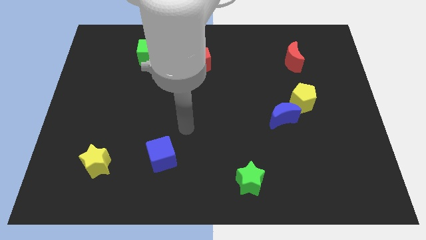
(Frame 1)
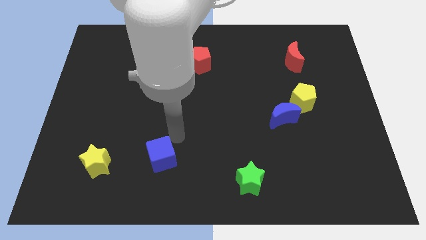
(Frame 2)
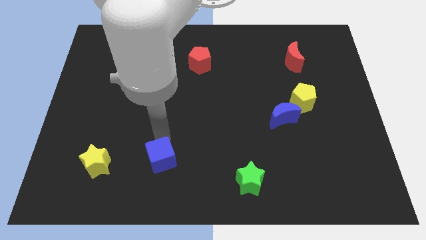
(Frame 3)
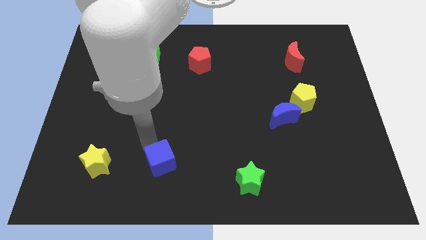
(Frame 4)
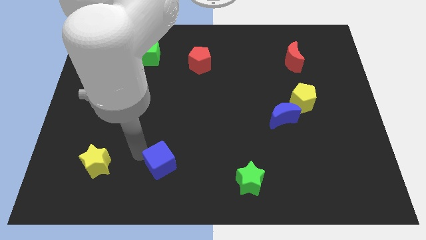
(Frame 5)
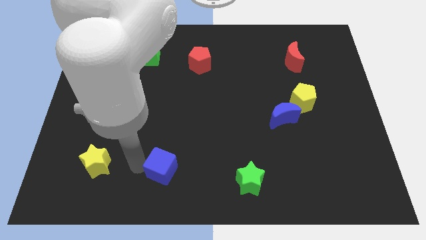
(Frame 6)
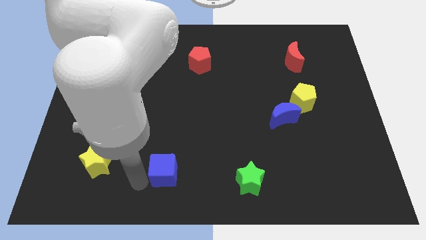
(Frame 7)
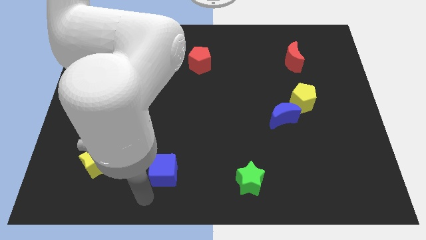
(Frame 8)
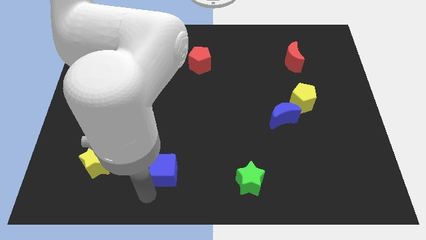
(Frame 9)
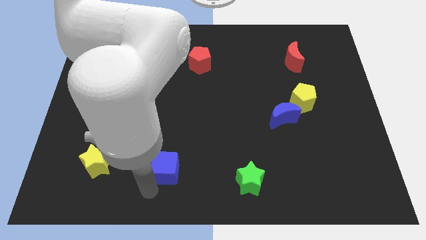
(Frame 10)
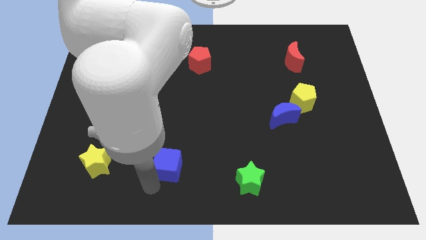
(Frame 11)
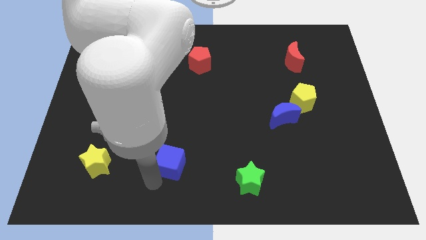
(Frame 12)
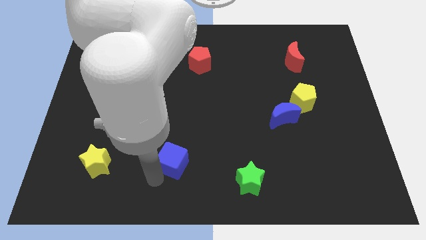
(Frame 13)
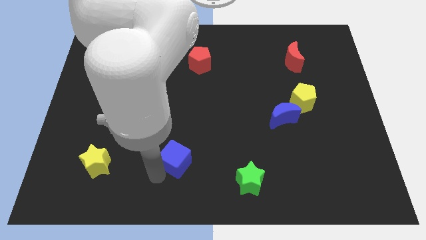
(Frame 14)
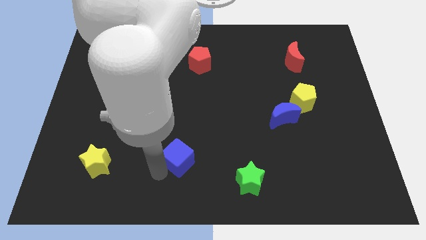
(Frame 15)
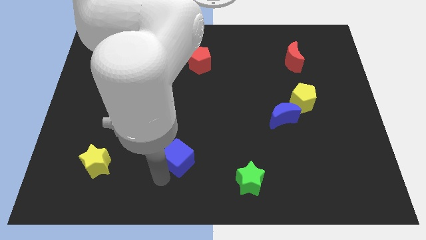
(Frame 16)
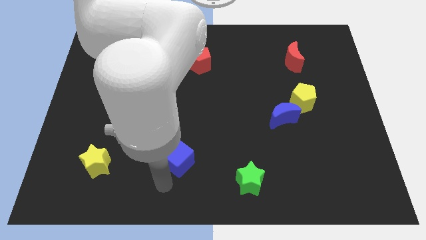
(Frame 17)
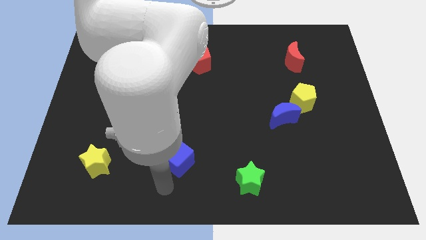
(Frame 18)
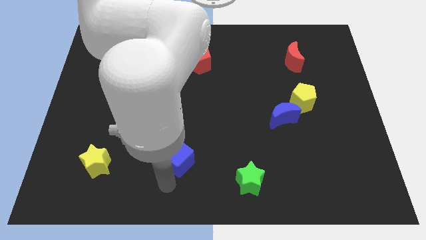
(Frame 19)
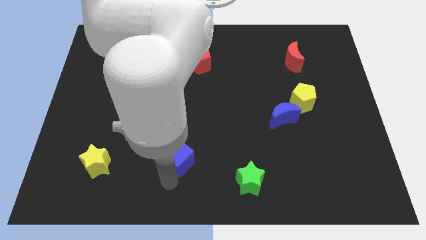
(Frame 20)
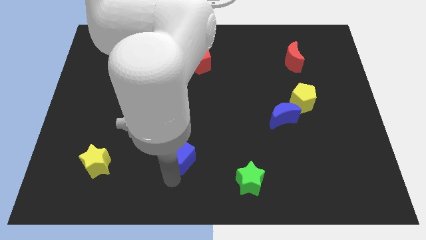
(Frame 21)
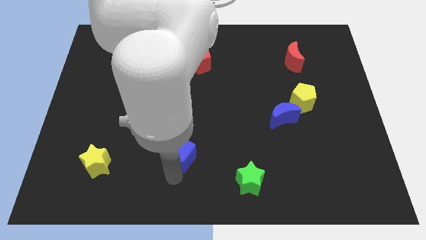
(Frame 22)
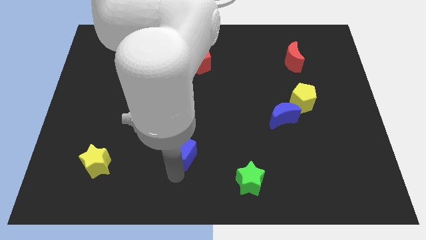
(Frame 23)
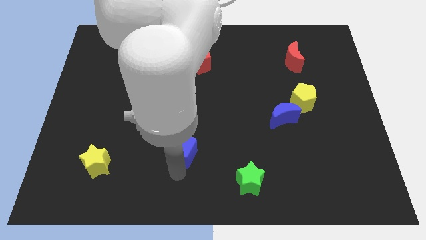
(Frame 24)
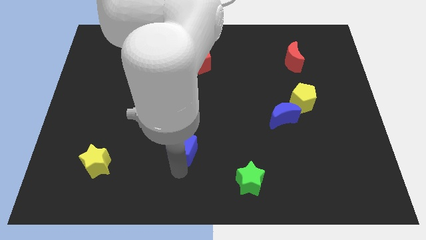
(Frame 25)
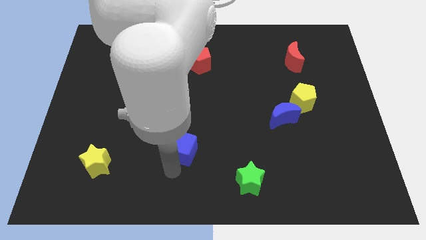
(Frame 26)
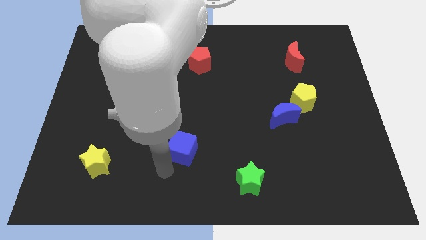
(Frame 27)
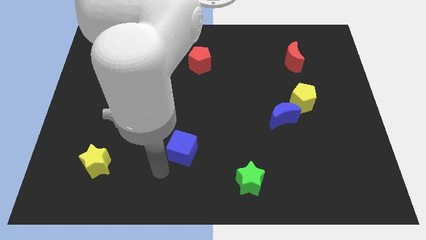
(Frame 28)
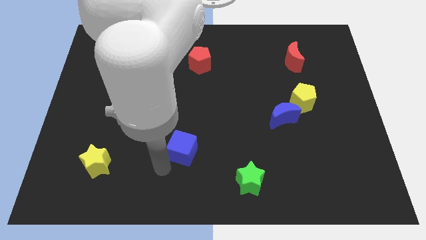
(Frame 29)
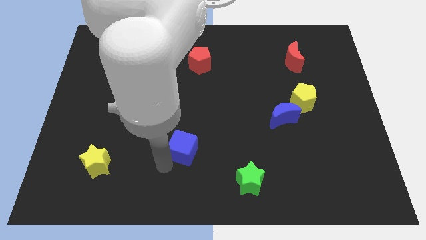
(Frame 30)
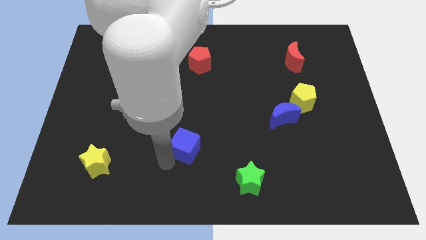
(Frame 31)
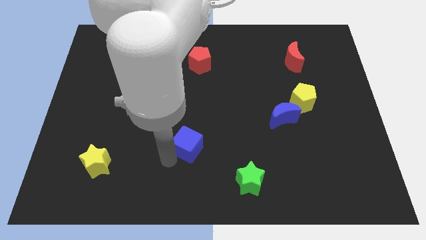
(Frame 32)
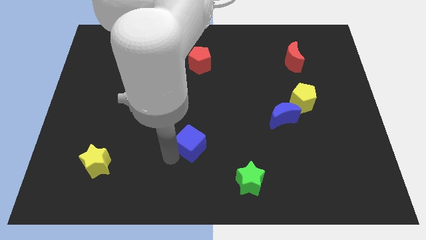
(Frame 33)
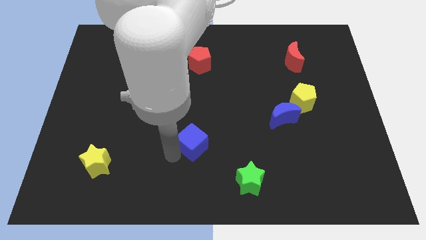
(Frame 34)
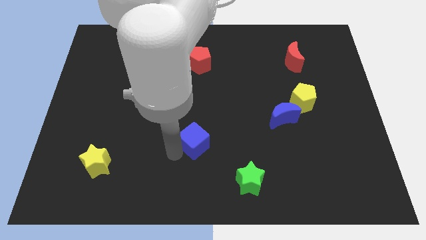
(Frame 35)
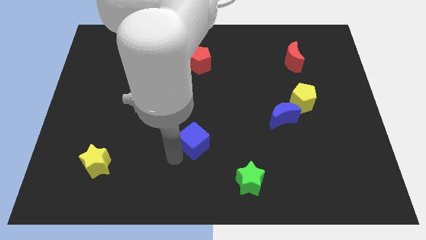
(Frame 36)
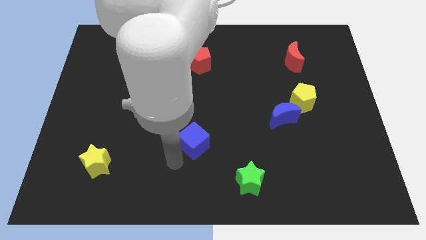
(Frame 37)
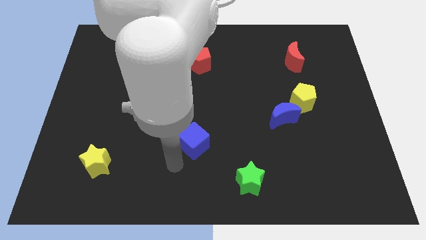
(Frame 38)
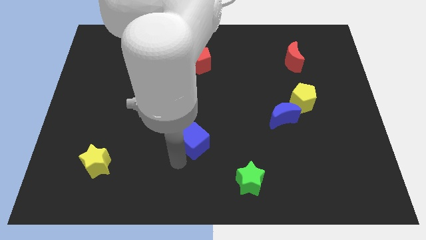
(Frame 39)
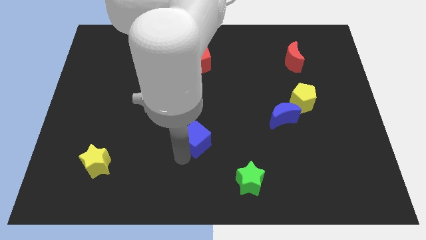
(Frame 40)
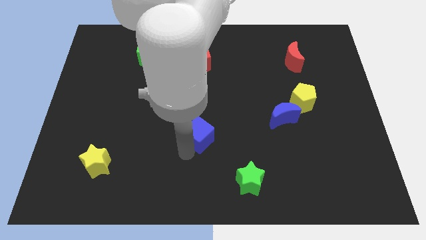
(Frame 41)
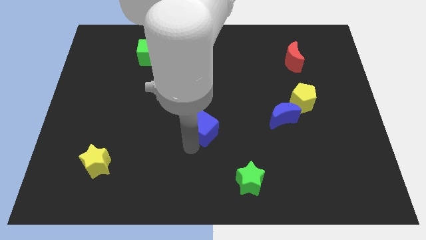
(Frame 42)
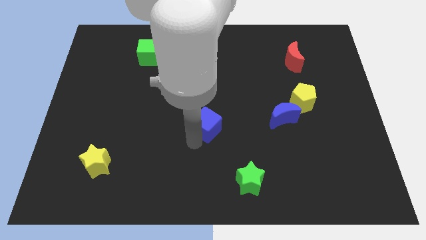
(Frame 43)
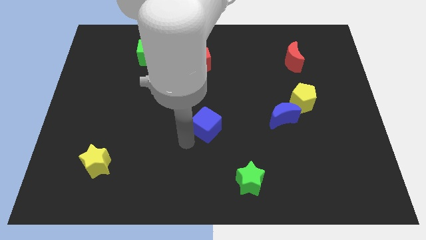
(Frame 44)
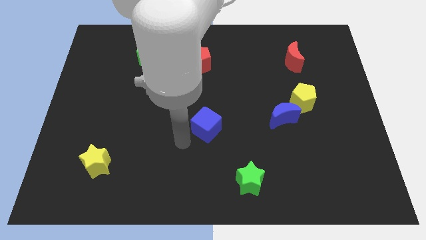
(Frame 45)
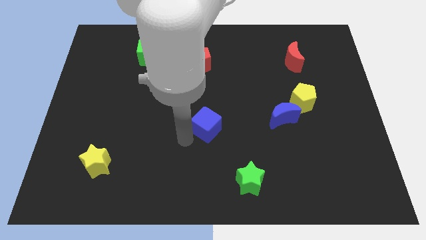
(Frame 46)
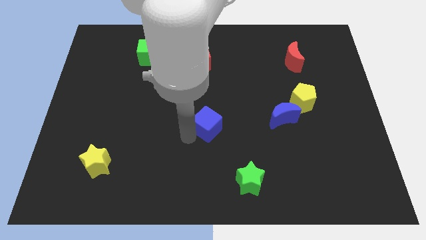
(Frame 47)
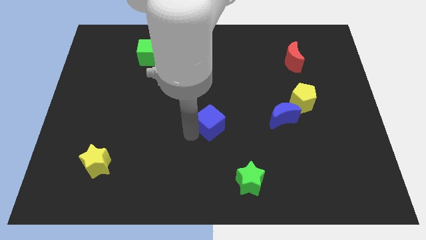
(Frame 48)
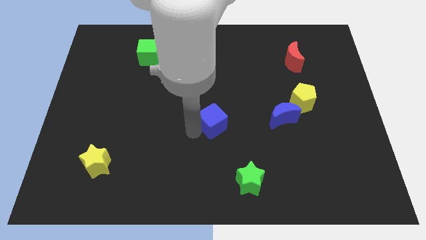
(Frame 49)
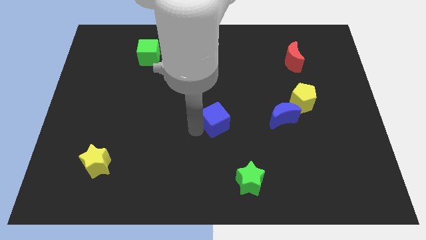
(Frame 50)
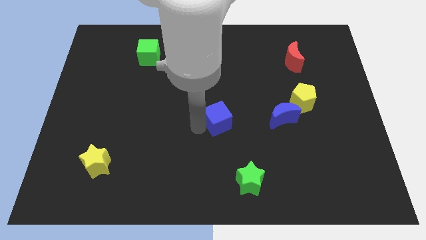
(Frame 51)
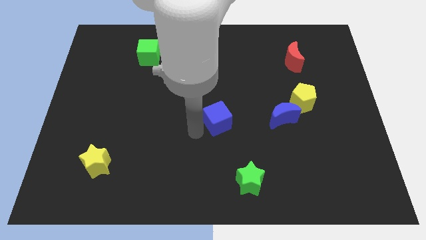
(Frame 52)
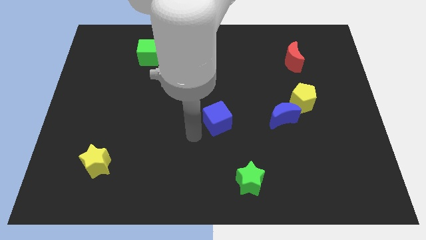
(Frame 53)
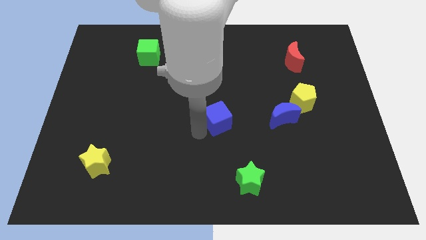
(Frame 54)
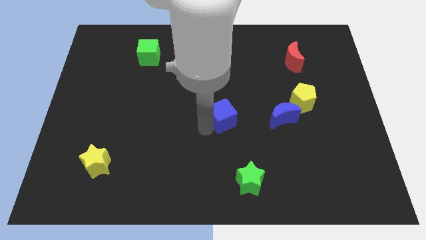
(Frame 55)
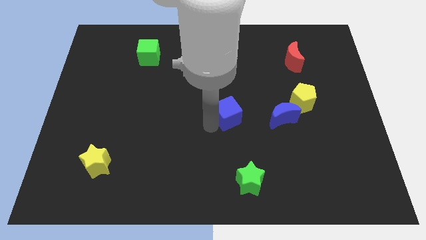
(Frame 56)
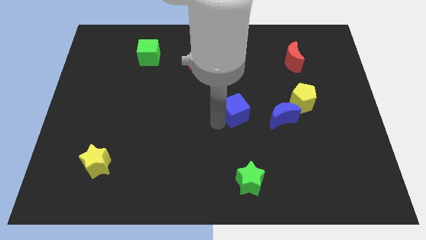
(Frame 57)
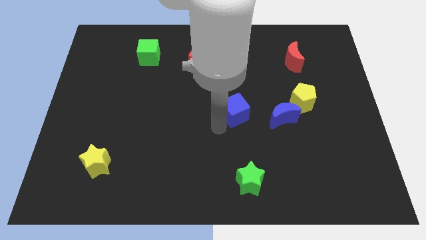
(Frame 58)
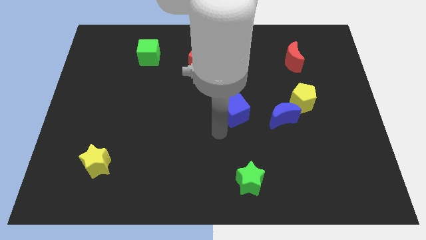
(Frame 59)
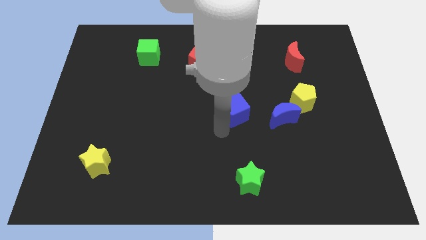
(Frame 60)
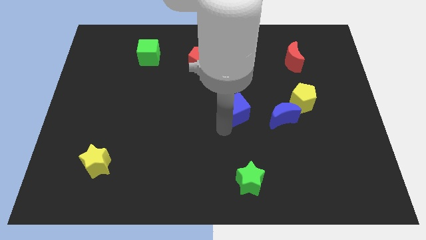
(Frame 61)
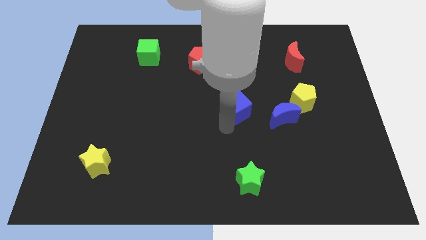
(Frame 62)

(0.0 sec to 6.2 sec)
move the blue cube up and to the right

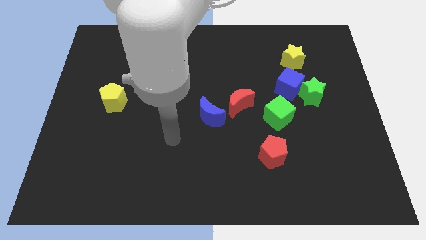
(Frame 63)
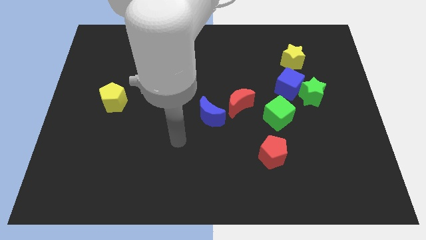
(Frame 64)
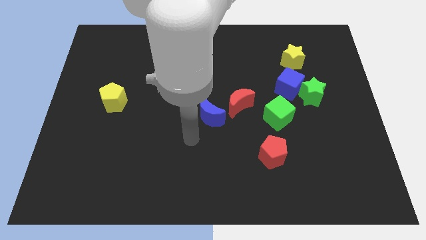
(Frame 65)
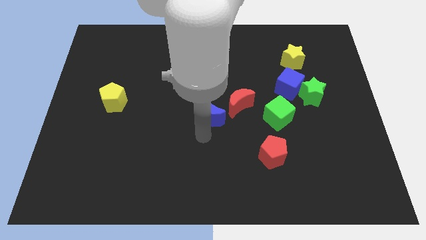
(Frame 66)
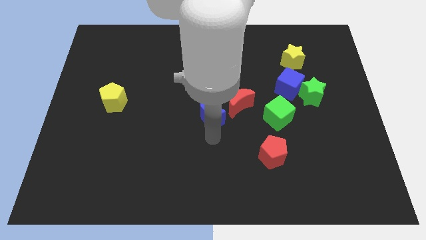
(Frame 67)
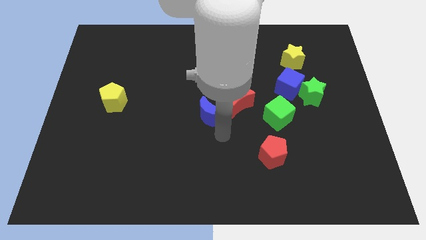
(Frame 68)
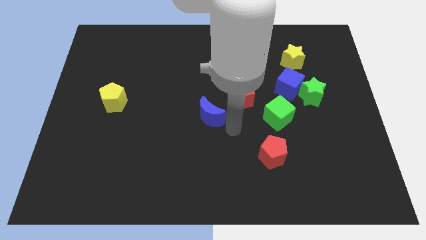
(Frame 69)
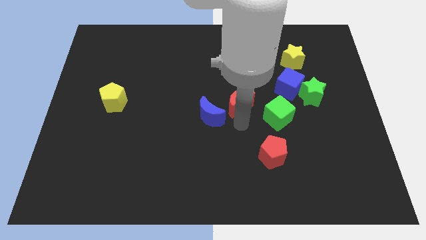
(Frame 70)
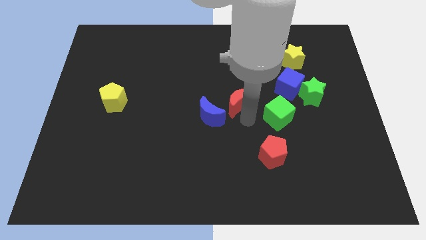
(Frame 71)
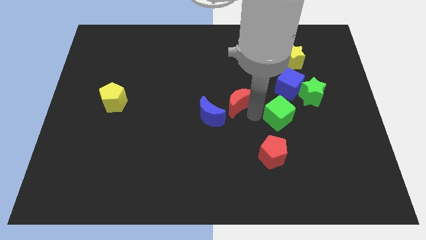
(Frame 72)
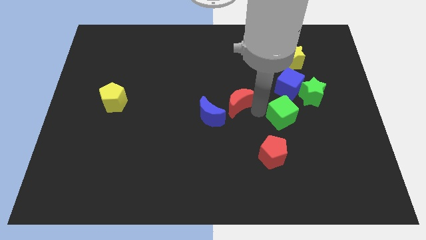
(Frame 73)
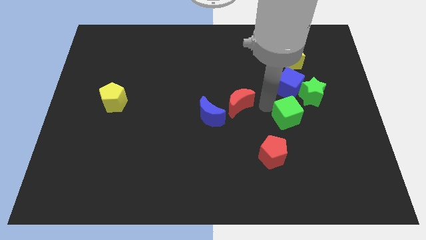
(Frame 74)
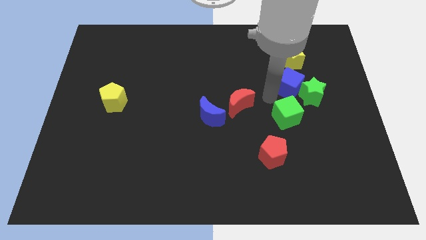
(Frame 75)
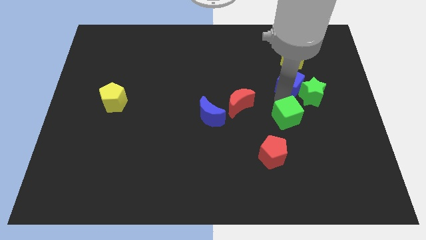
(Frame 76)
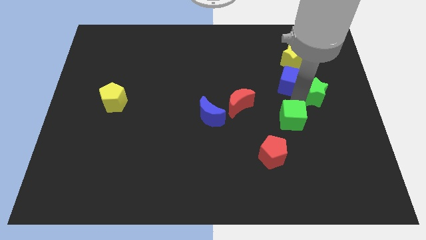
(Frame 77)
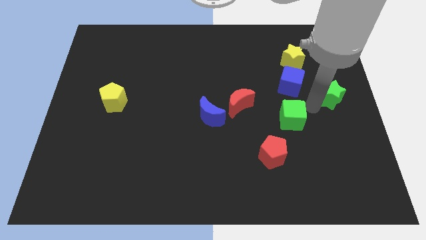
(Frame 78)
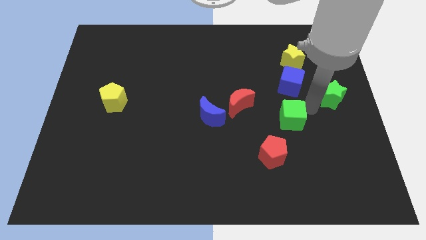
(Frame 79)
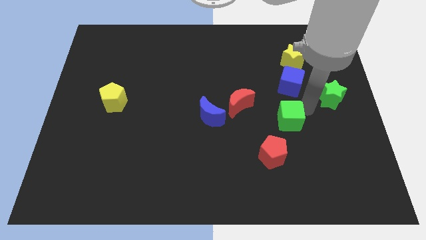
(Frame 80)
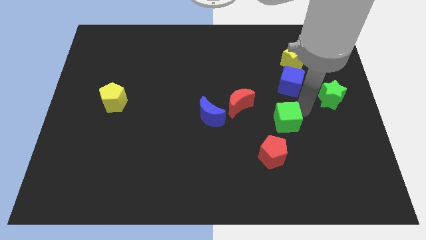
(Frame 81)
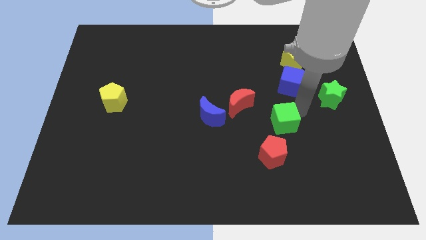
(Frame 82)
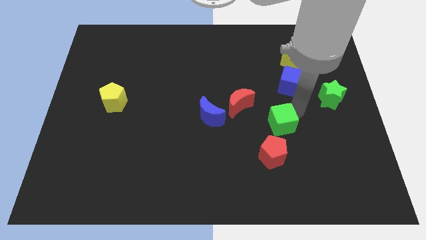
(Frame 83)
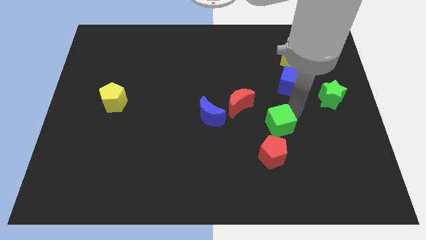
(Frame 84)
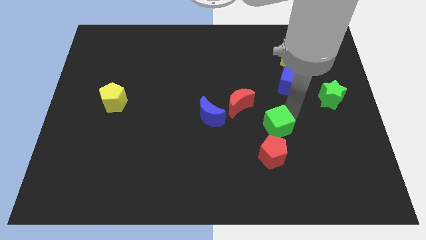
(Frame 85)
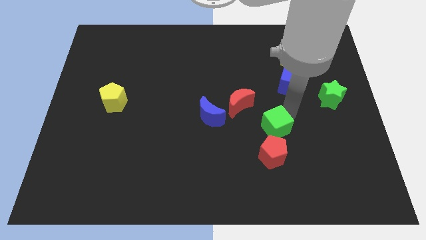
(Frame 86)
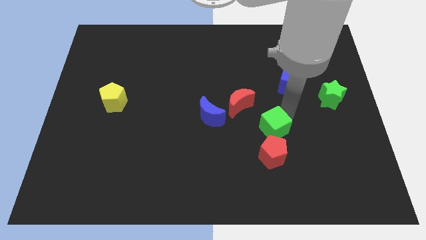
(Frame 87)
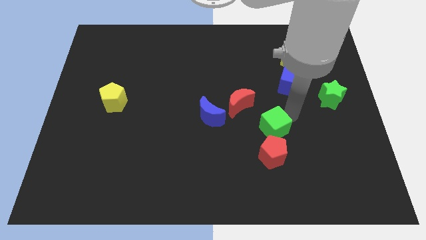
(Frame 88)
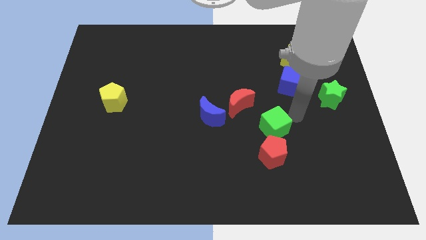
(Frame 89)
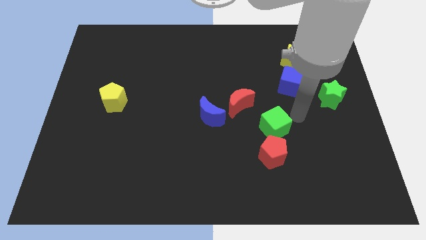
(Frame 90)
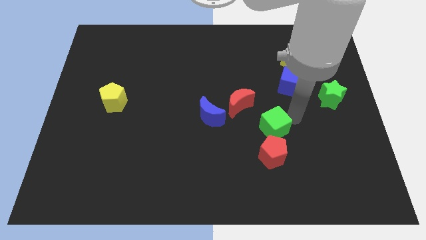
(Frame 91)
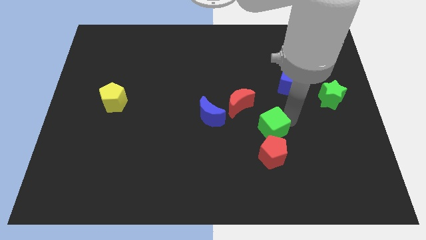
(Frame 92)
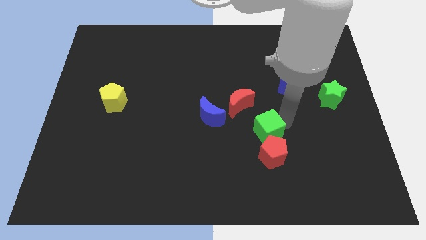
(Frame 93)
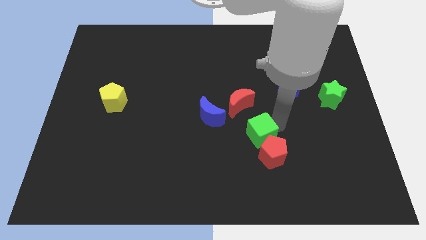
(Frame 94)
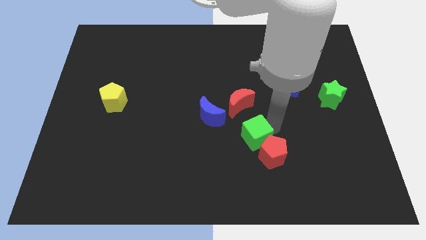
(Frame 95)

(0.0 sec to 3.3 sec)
slightly slide the green cube down and then to the left
